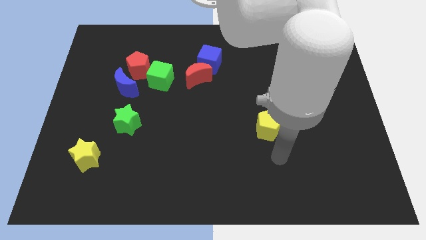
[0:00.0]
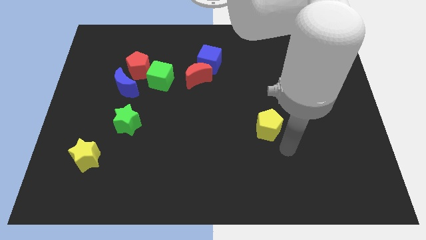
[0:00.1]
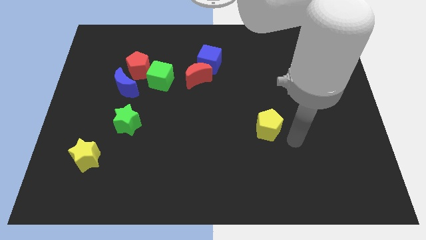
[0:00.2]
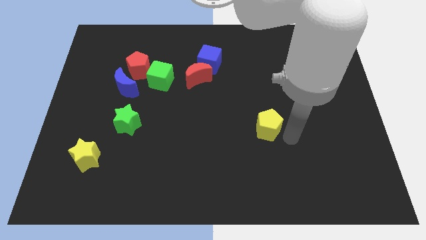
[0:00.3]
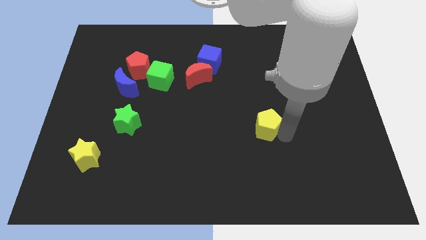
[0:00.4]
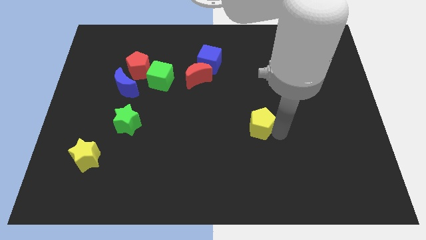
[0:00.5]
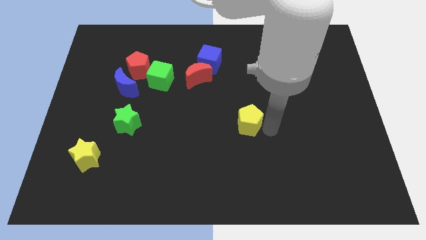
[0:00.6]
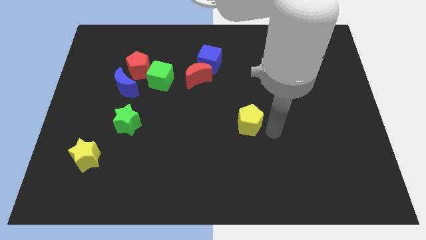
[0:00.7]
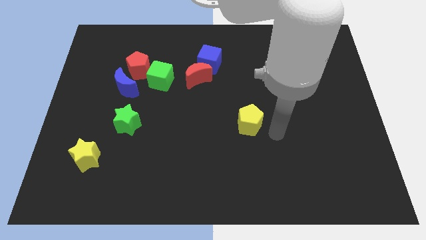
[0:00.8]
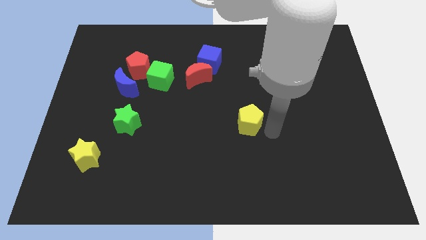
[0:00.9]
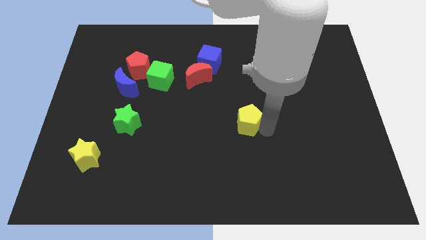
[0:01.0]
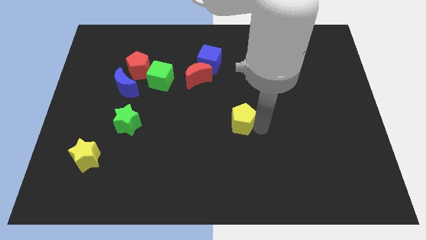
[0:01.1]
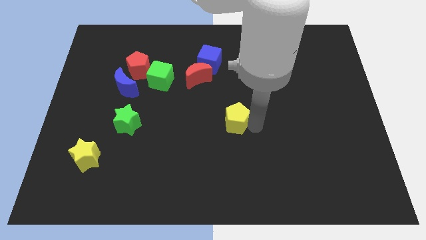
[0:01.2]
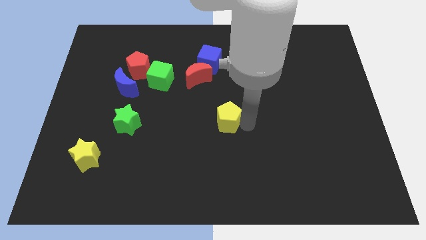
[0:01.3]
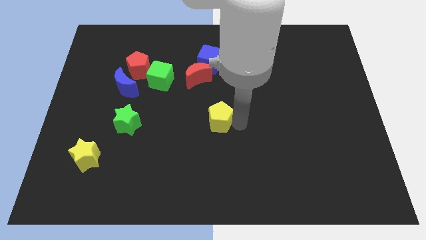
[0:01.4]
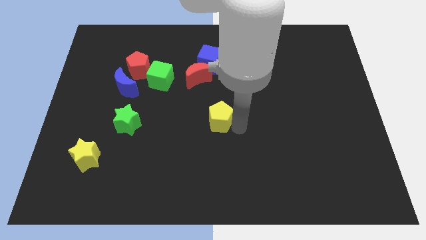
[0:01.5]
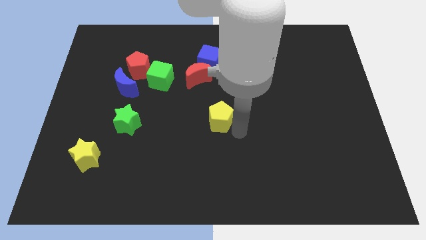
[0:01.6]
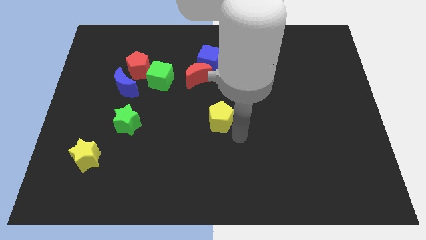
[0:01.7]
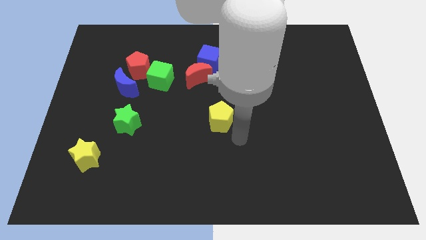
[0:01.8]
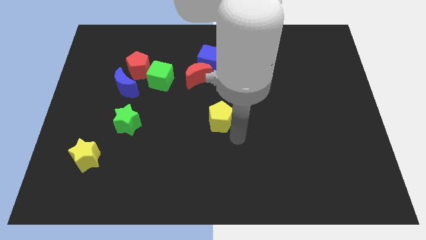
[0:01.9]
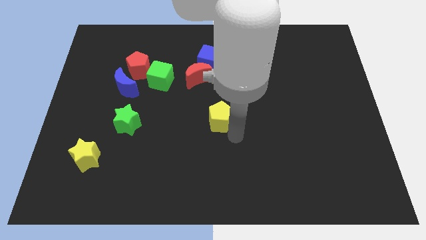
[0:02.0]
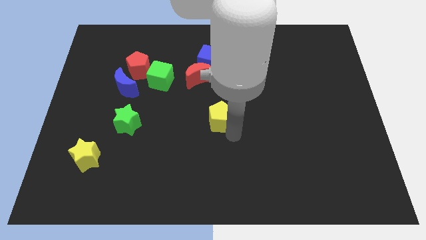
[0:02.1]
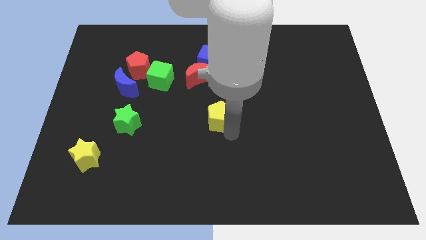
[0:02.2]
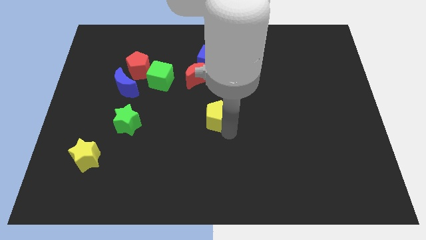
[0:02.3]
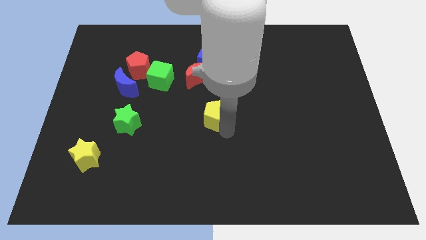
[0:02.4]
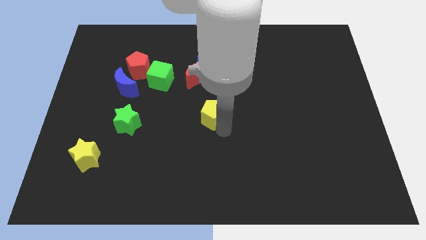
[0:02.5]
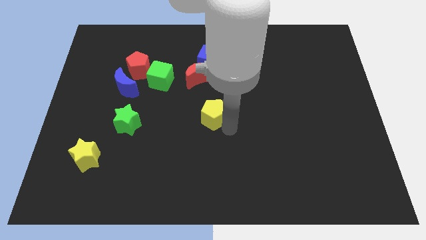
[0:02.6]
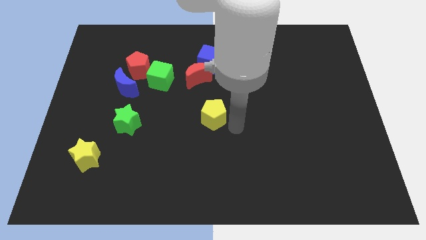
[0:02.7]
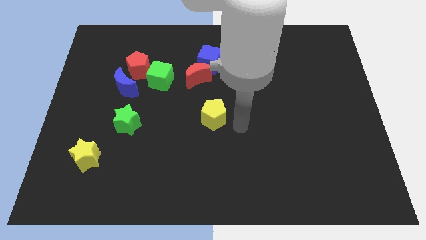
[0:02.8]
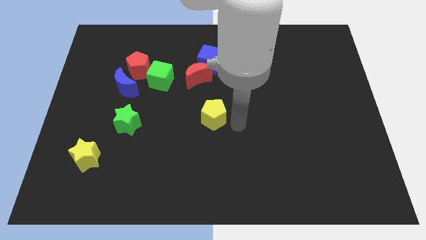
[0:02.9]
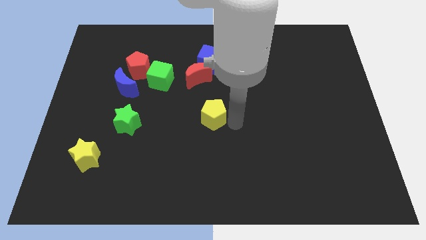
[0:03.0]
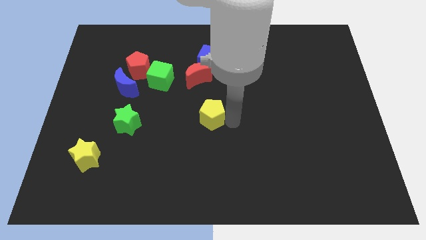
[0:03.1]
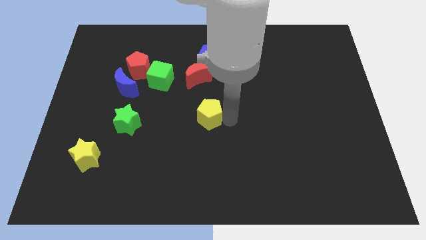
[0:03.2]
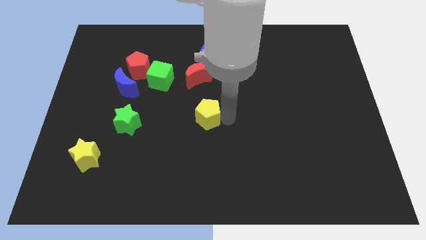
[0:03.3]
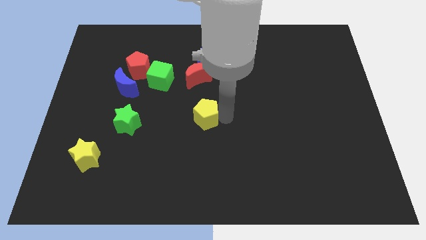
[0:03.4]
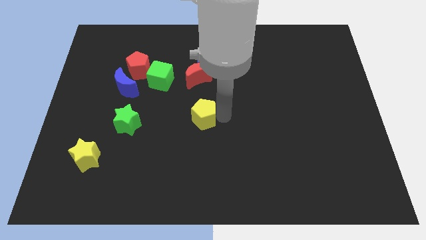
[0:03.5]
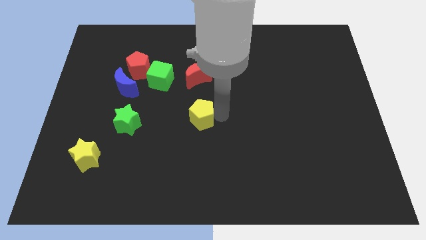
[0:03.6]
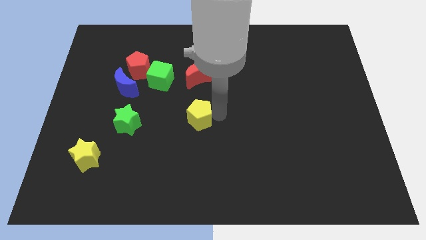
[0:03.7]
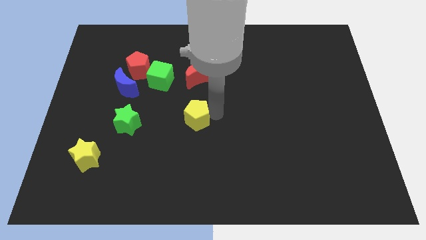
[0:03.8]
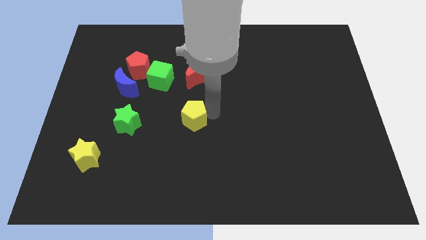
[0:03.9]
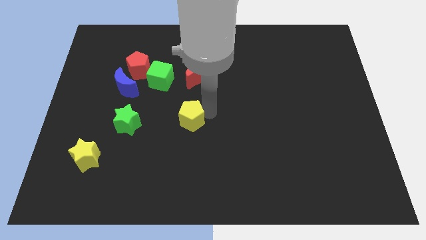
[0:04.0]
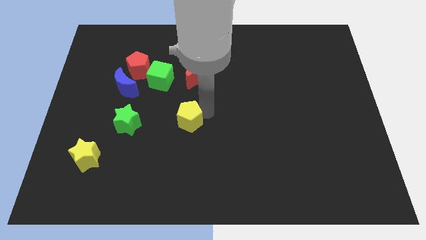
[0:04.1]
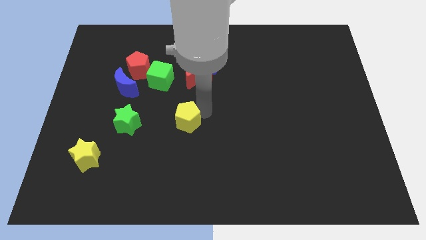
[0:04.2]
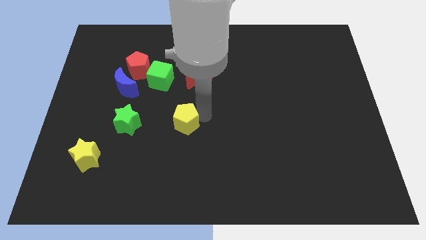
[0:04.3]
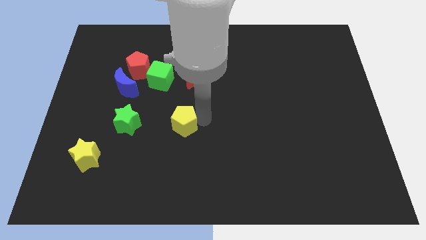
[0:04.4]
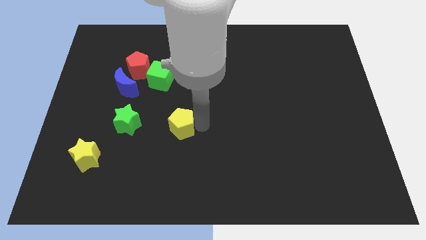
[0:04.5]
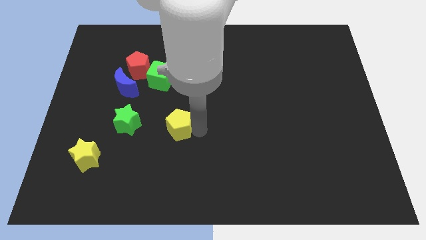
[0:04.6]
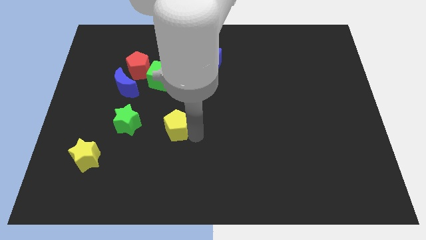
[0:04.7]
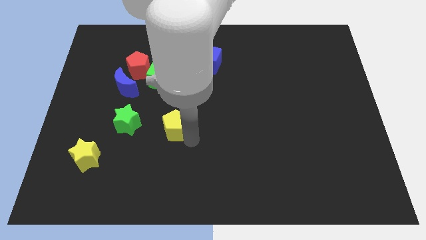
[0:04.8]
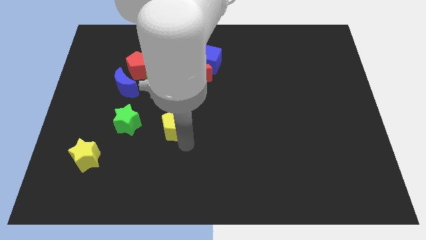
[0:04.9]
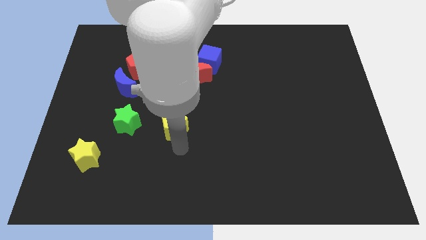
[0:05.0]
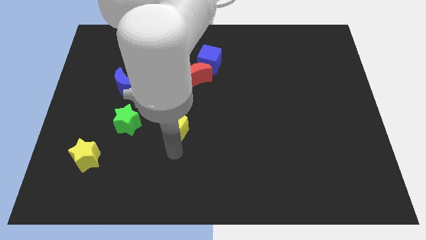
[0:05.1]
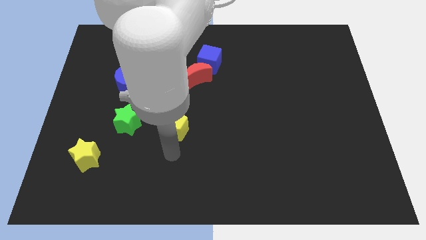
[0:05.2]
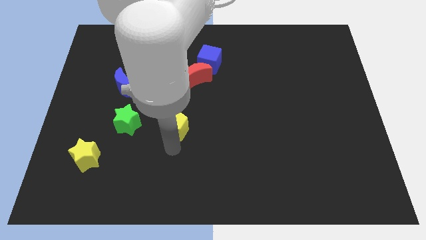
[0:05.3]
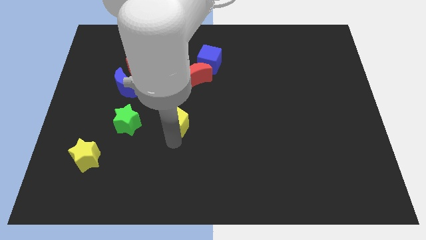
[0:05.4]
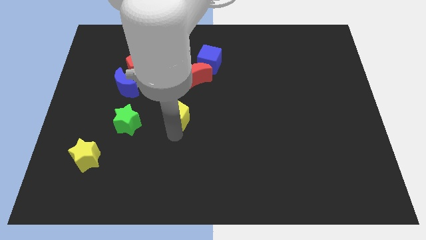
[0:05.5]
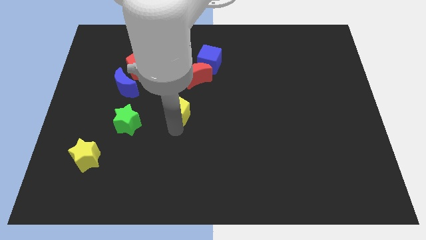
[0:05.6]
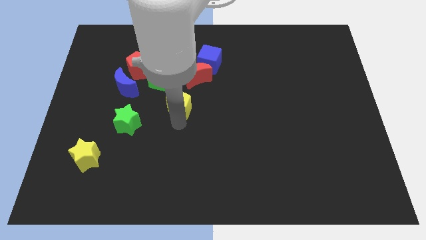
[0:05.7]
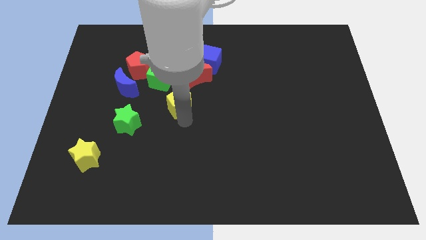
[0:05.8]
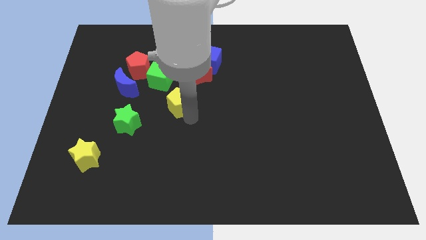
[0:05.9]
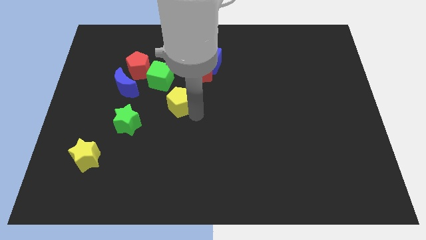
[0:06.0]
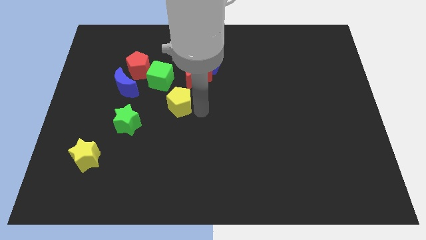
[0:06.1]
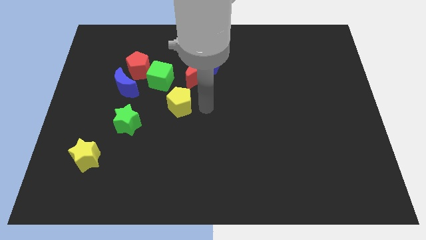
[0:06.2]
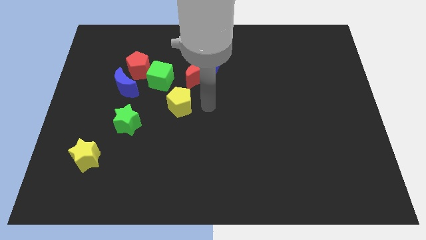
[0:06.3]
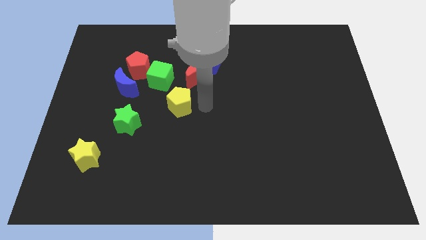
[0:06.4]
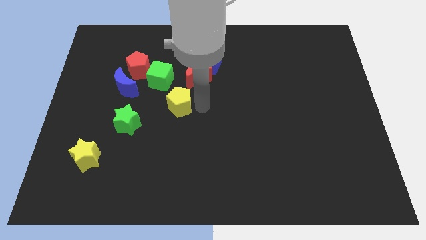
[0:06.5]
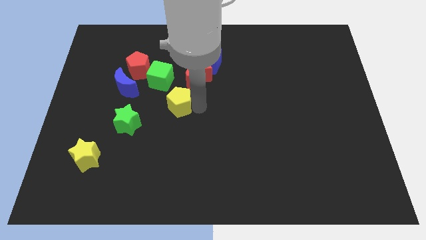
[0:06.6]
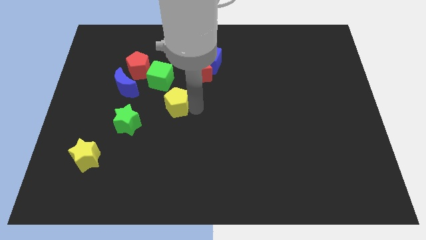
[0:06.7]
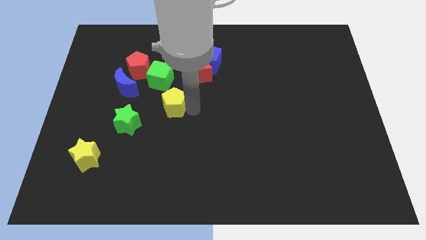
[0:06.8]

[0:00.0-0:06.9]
put the yellow pentagon to the top right side of the green star
